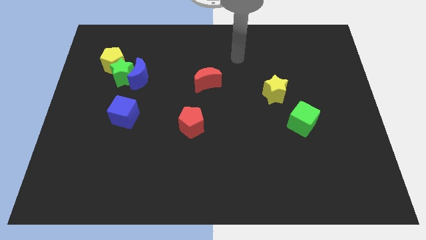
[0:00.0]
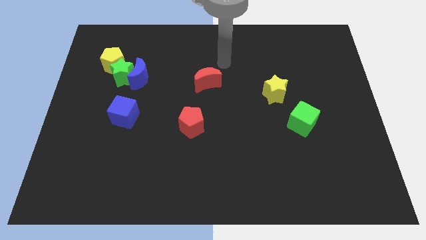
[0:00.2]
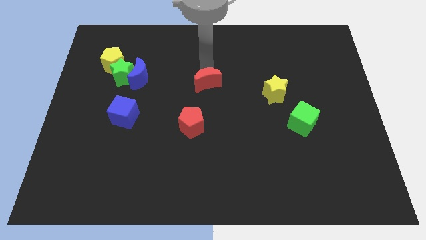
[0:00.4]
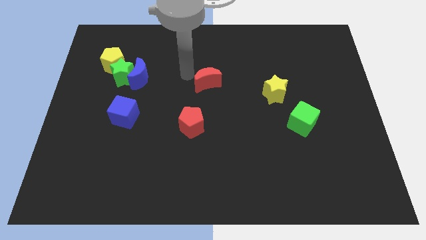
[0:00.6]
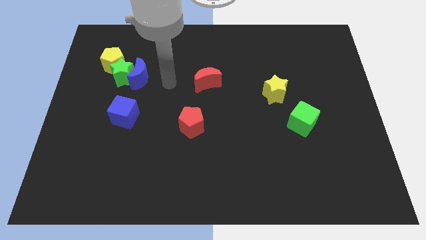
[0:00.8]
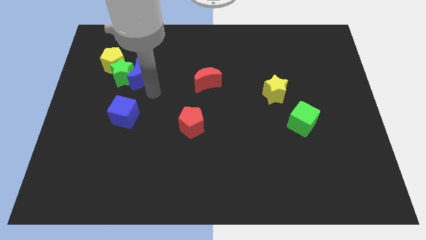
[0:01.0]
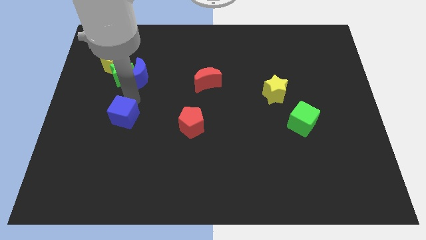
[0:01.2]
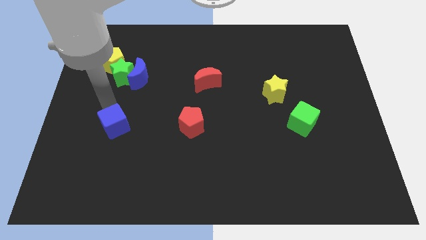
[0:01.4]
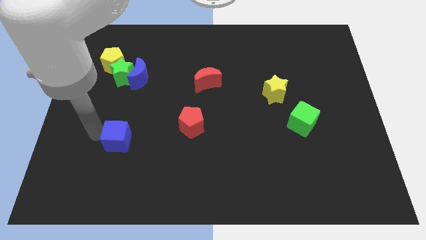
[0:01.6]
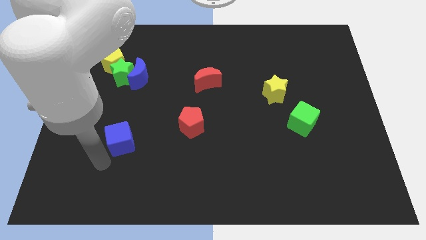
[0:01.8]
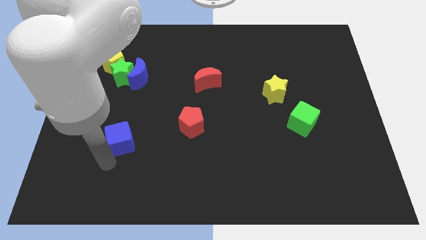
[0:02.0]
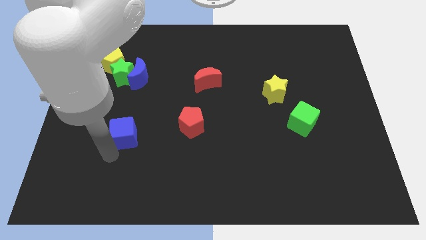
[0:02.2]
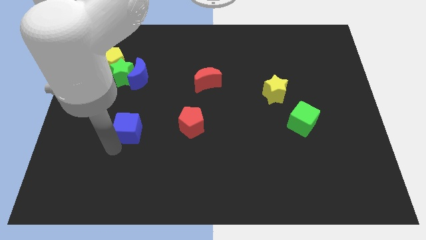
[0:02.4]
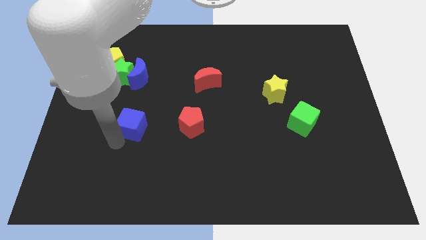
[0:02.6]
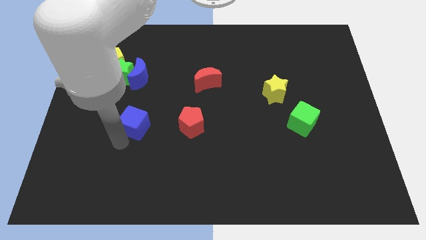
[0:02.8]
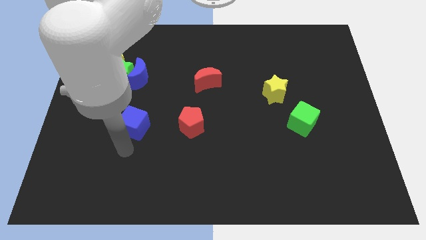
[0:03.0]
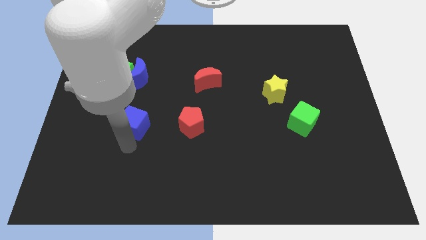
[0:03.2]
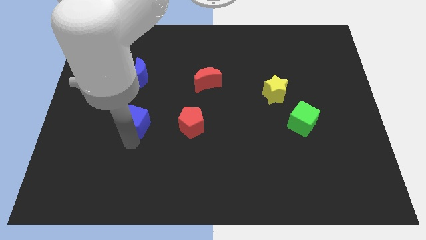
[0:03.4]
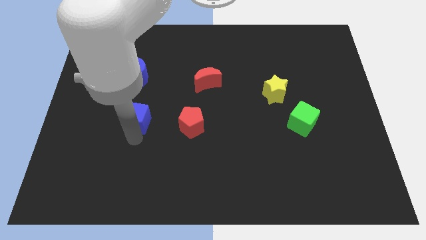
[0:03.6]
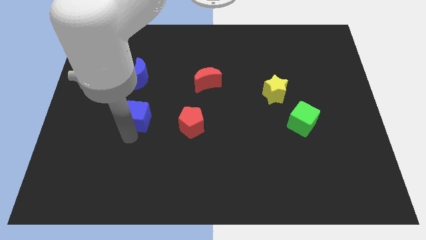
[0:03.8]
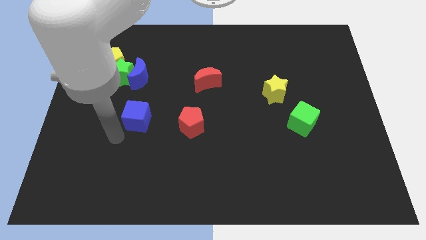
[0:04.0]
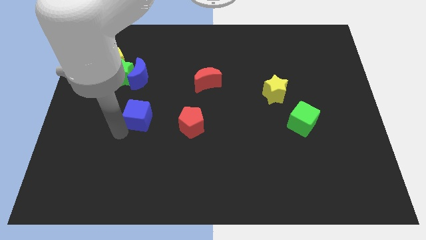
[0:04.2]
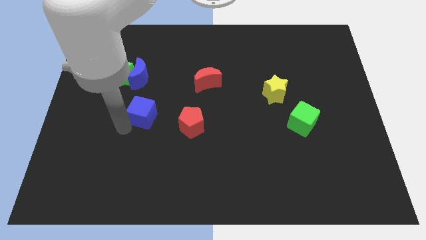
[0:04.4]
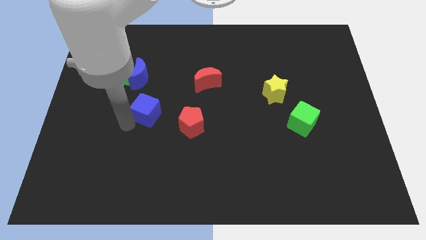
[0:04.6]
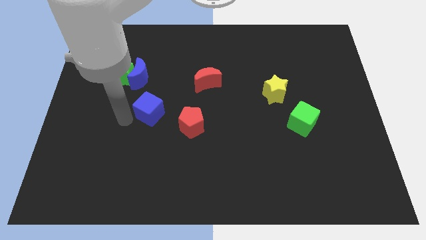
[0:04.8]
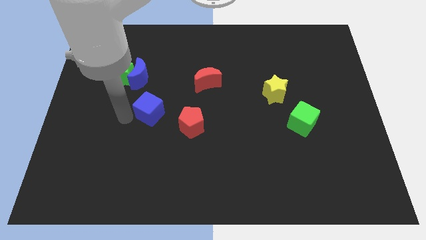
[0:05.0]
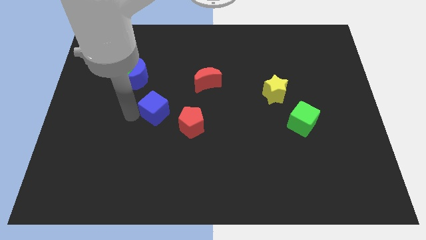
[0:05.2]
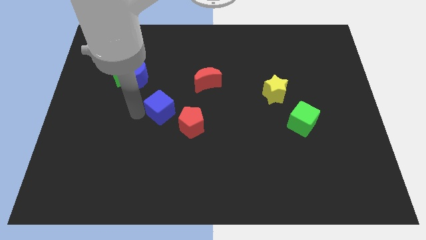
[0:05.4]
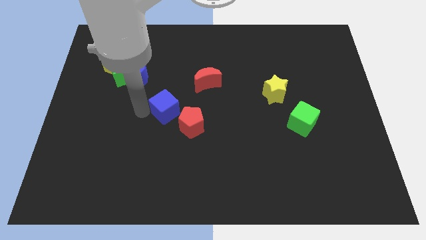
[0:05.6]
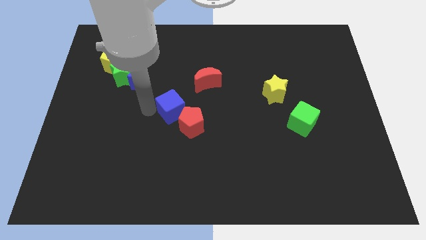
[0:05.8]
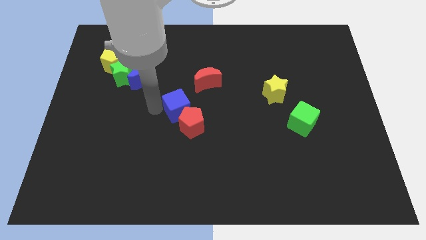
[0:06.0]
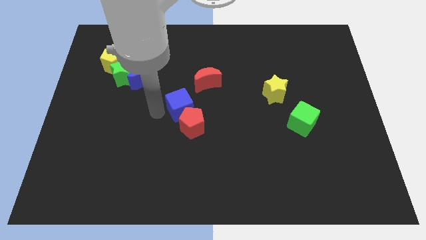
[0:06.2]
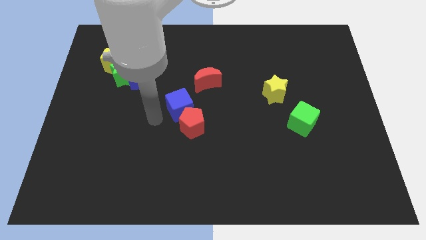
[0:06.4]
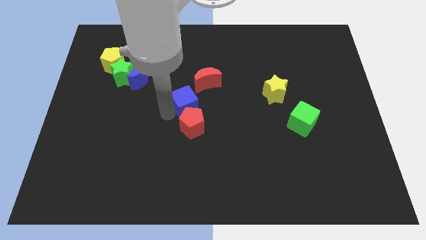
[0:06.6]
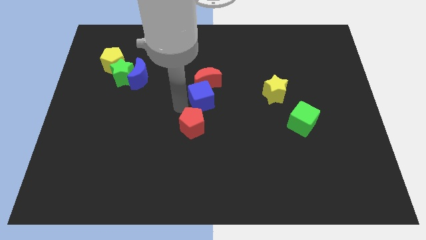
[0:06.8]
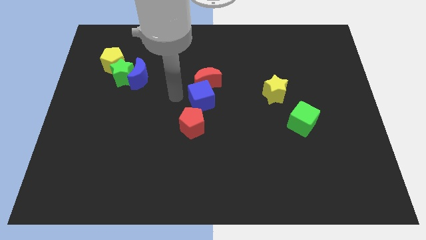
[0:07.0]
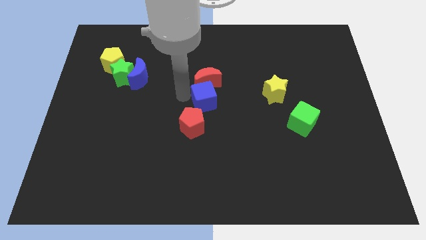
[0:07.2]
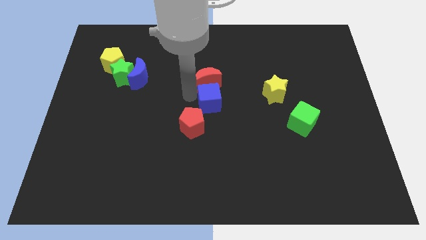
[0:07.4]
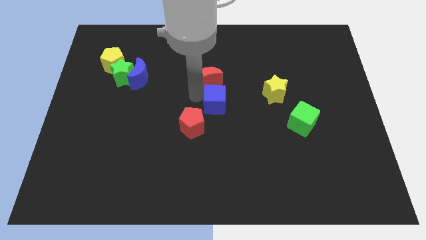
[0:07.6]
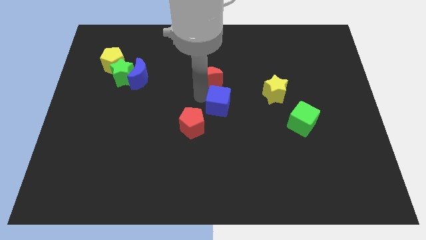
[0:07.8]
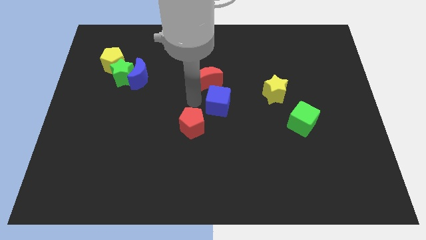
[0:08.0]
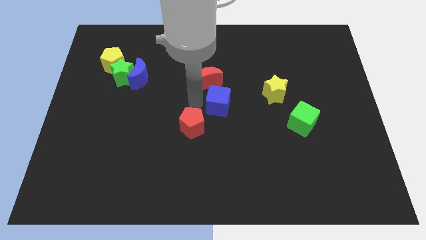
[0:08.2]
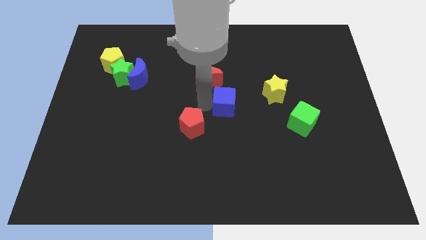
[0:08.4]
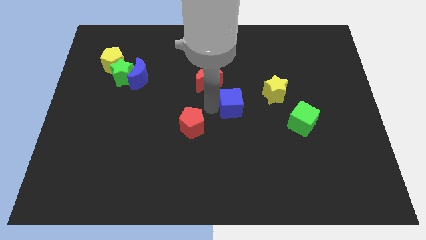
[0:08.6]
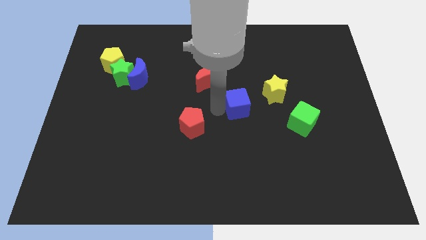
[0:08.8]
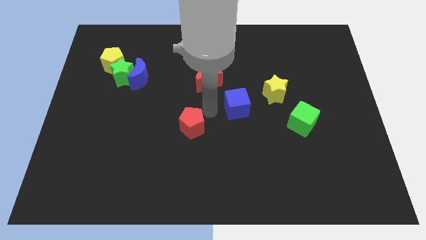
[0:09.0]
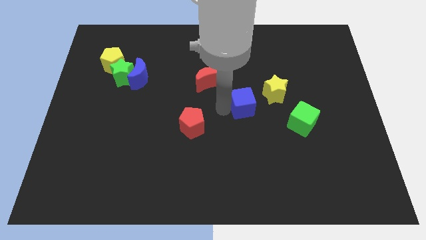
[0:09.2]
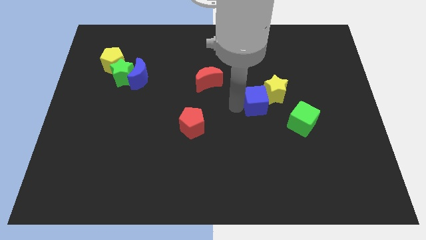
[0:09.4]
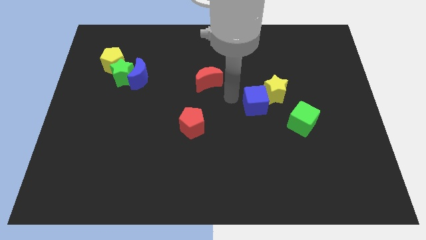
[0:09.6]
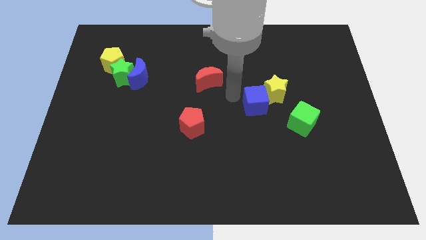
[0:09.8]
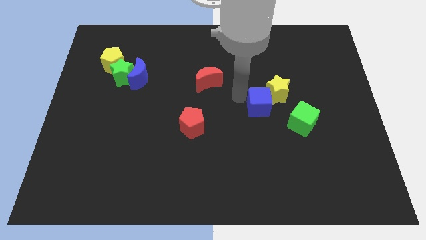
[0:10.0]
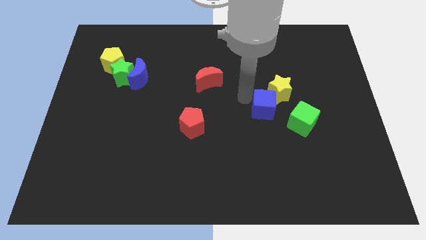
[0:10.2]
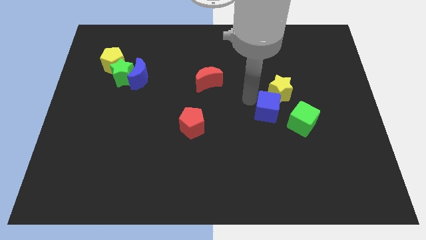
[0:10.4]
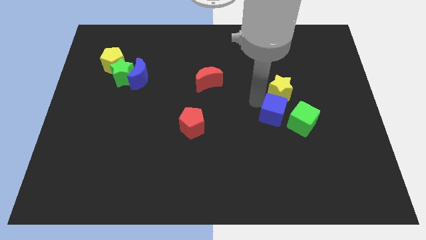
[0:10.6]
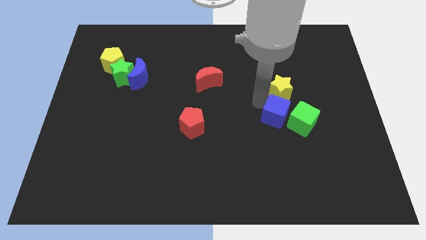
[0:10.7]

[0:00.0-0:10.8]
put the blue cube to the green cube

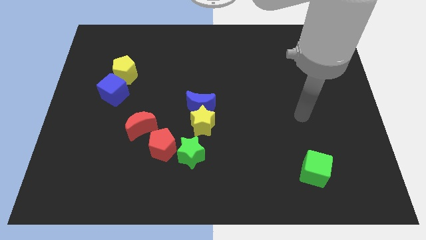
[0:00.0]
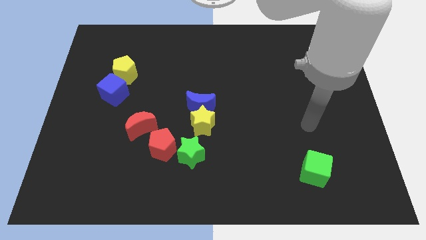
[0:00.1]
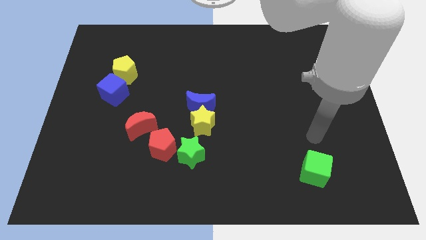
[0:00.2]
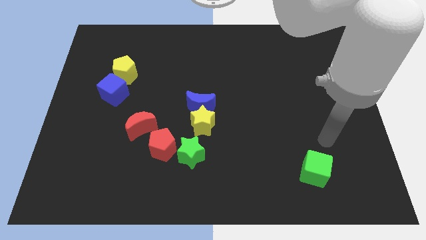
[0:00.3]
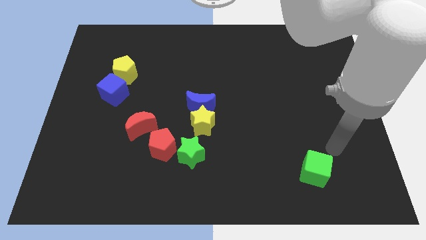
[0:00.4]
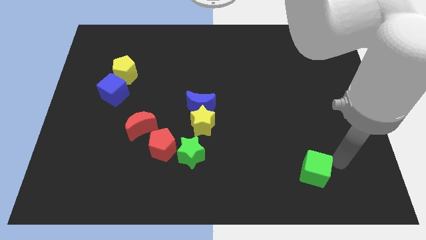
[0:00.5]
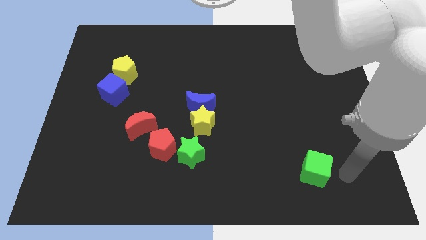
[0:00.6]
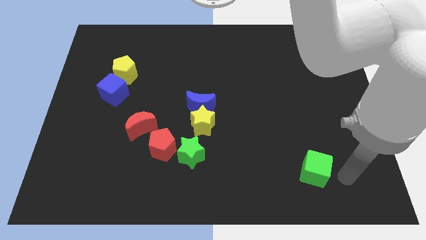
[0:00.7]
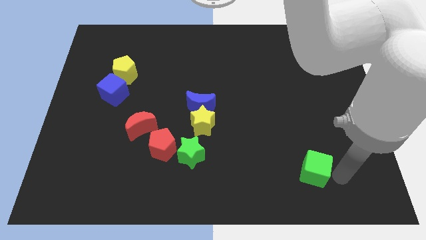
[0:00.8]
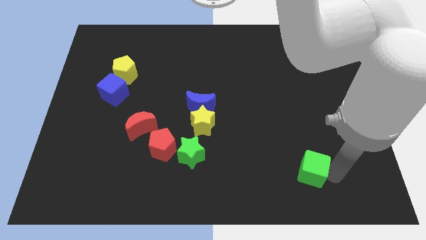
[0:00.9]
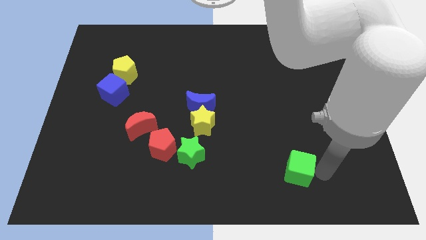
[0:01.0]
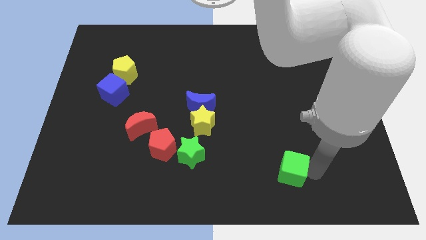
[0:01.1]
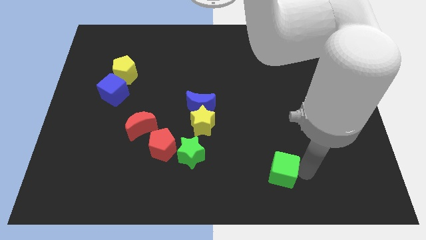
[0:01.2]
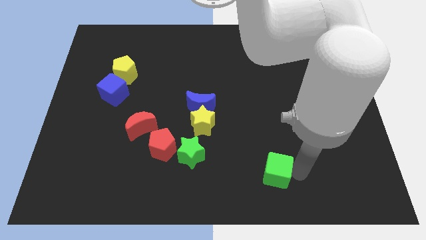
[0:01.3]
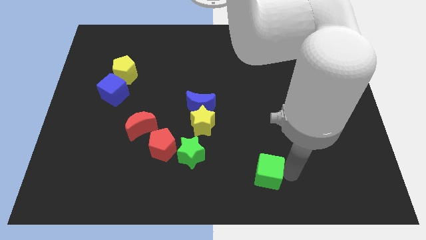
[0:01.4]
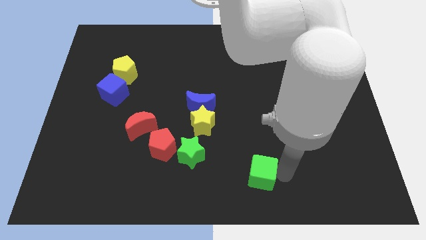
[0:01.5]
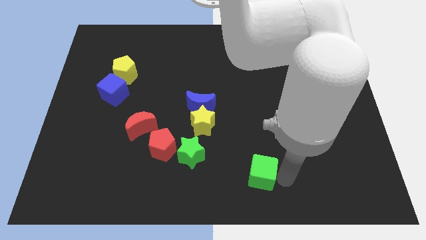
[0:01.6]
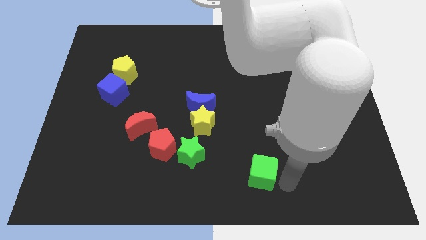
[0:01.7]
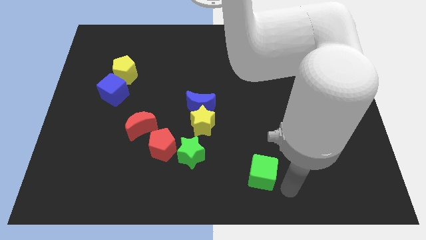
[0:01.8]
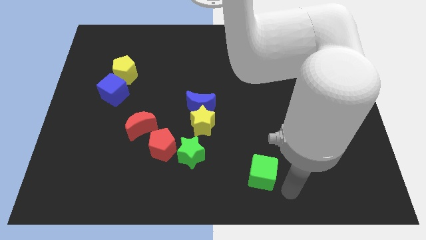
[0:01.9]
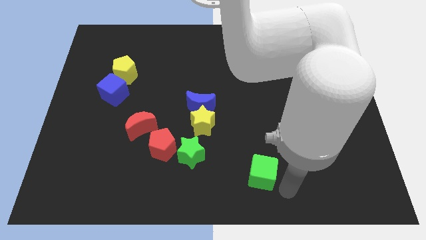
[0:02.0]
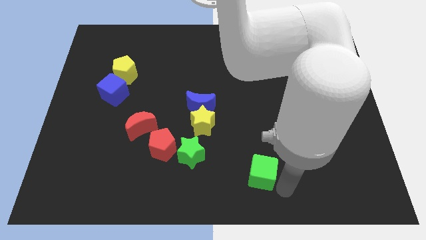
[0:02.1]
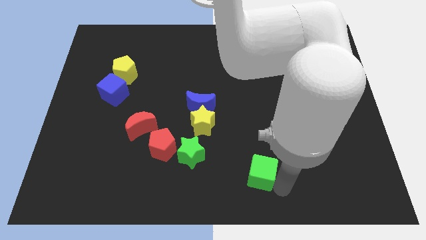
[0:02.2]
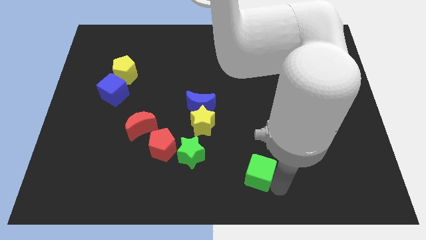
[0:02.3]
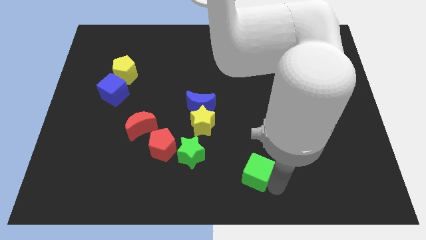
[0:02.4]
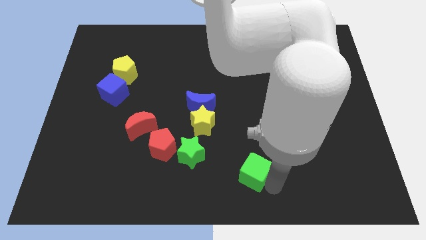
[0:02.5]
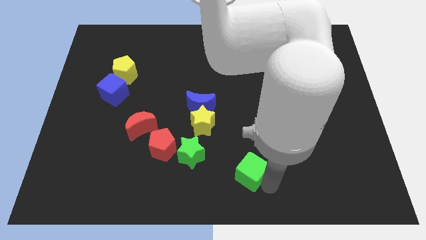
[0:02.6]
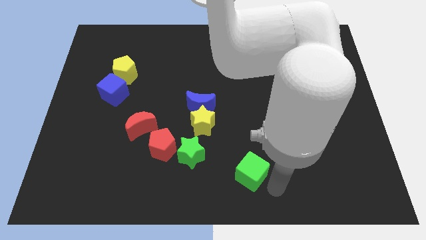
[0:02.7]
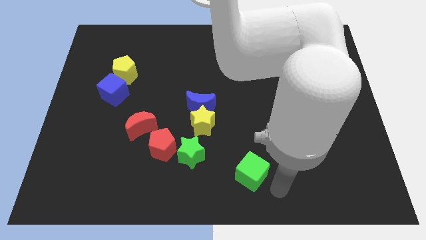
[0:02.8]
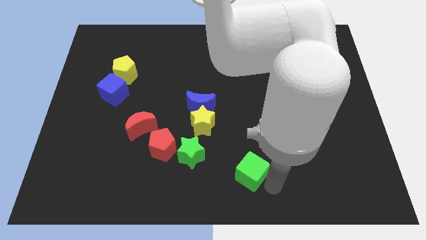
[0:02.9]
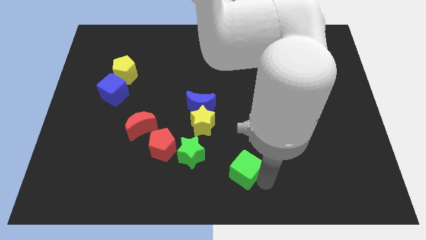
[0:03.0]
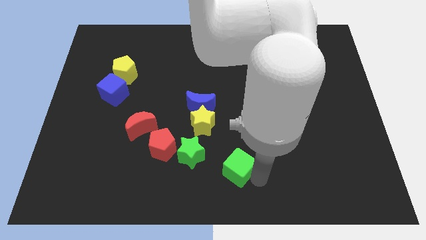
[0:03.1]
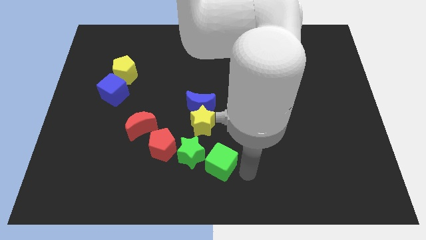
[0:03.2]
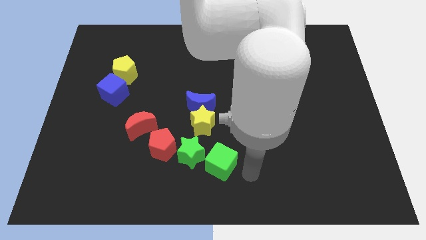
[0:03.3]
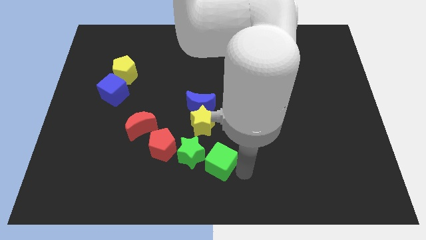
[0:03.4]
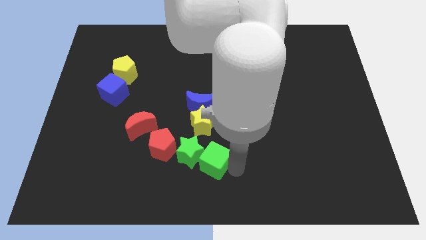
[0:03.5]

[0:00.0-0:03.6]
slide the green cube next to the green star
